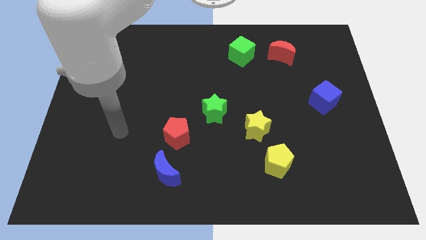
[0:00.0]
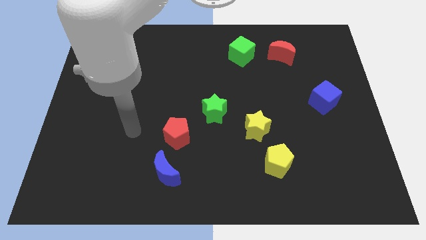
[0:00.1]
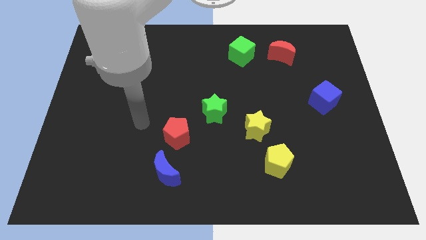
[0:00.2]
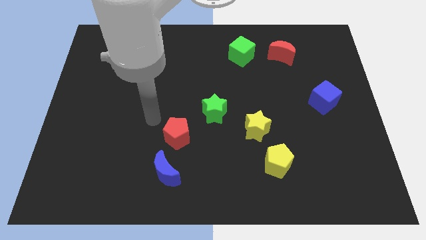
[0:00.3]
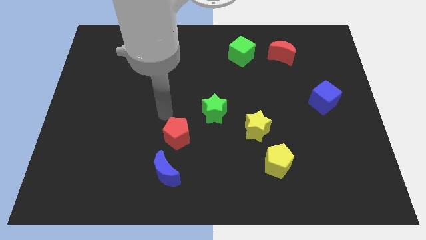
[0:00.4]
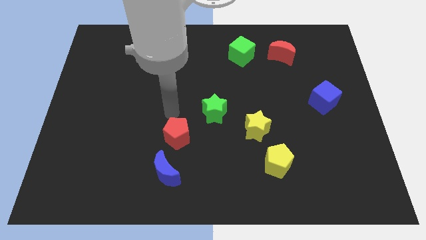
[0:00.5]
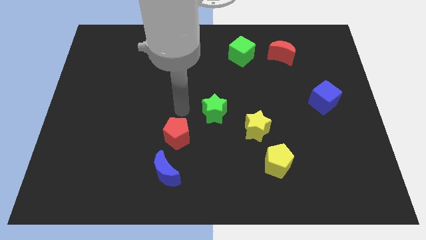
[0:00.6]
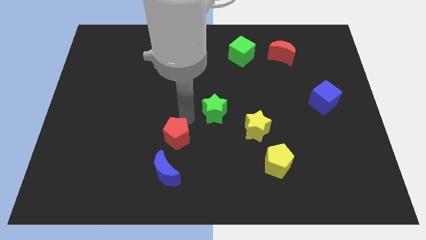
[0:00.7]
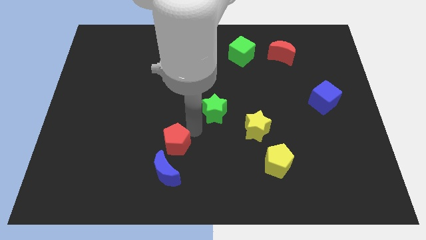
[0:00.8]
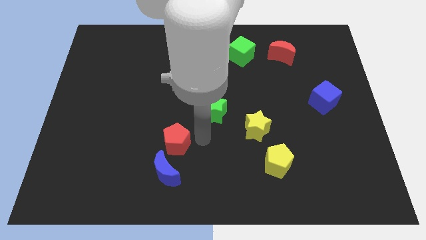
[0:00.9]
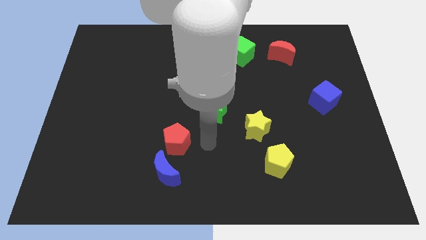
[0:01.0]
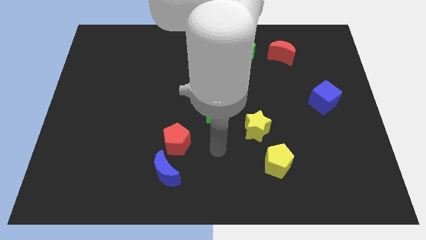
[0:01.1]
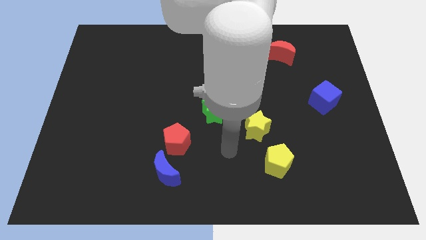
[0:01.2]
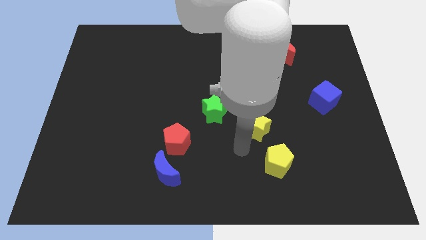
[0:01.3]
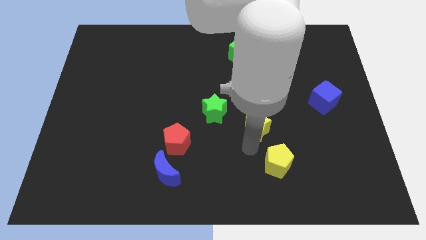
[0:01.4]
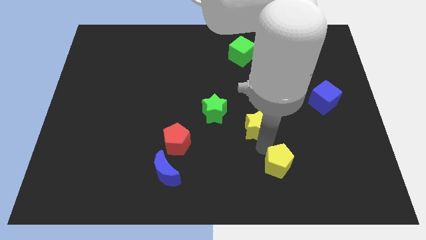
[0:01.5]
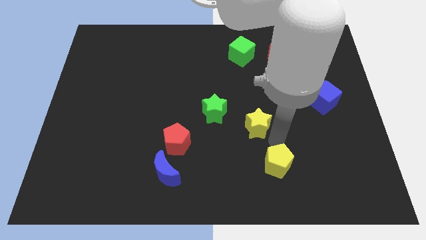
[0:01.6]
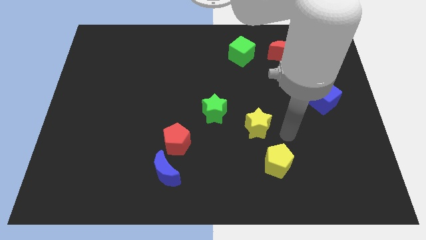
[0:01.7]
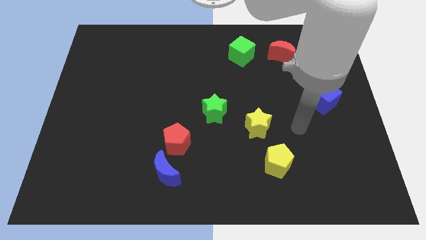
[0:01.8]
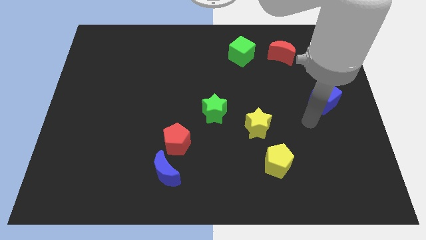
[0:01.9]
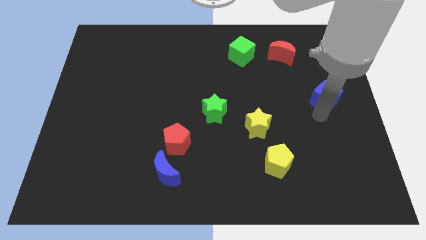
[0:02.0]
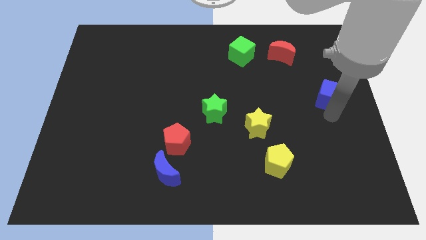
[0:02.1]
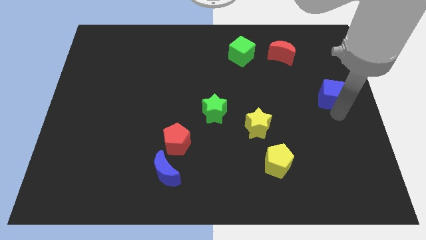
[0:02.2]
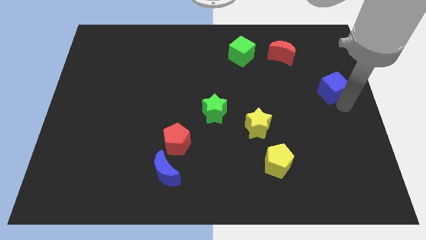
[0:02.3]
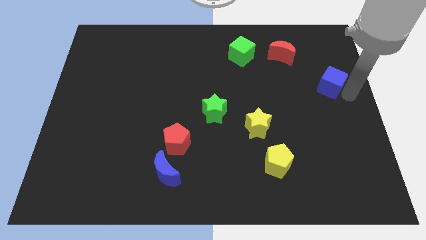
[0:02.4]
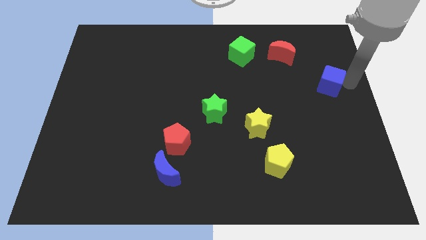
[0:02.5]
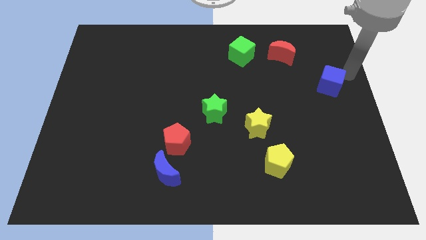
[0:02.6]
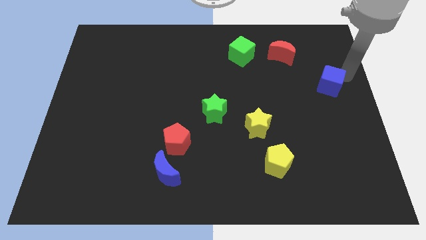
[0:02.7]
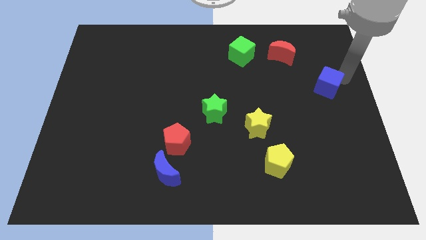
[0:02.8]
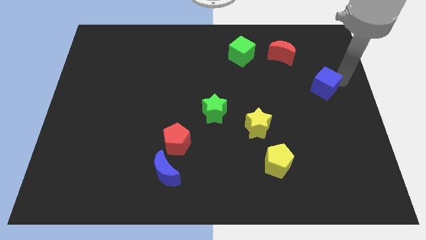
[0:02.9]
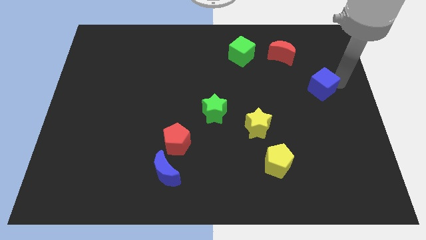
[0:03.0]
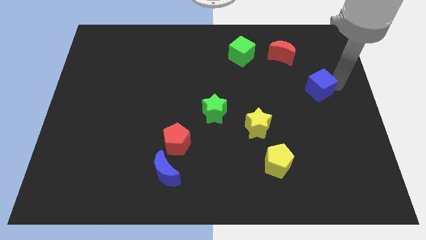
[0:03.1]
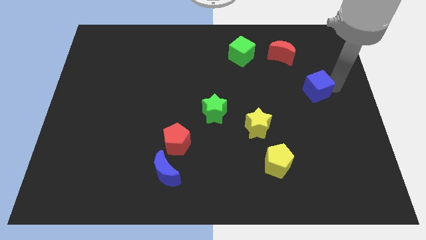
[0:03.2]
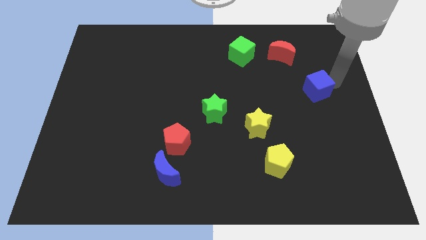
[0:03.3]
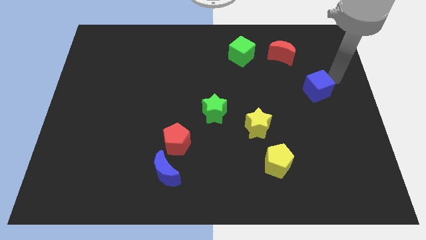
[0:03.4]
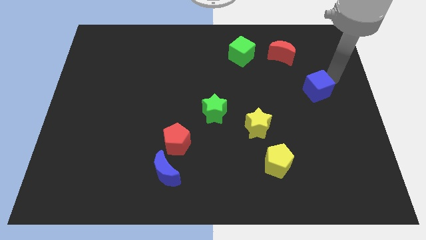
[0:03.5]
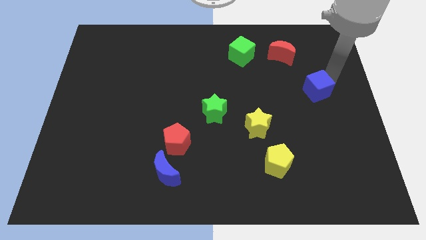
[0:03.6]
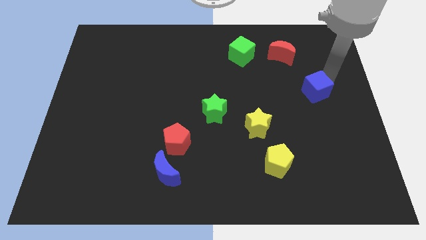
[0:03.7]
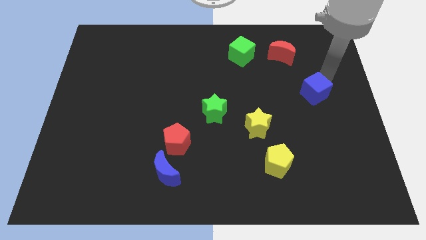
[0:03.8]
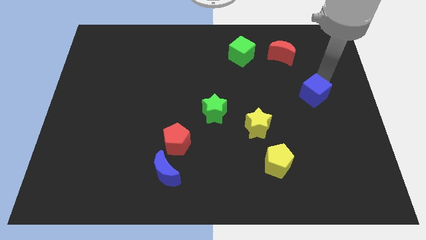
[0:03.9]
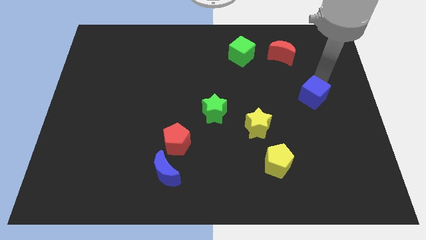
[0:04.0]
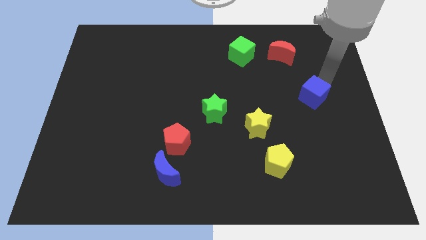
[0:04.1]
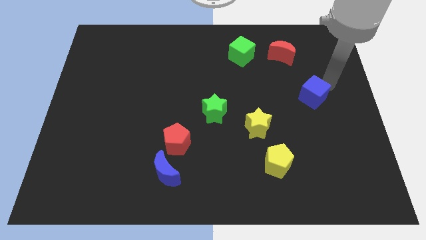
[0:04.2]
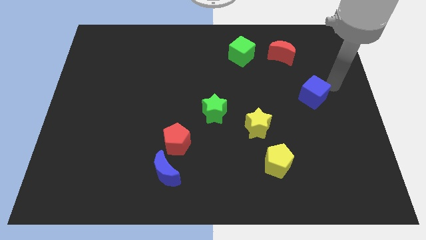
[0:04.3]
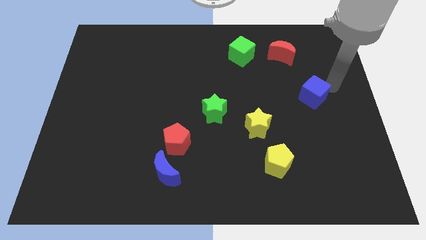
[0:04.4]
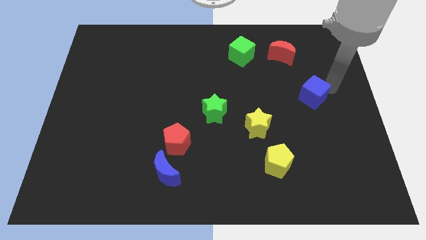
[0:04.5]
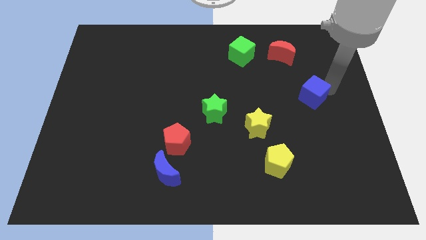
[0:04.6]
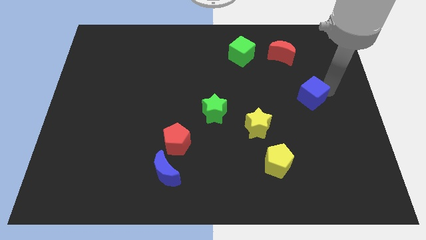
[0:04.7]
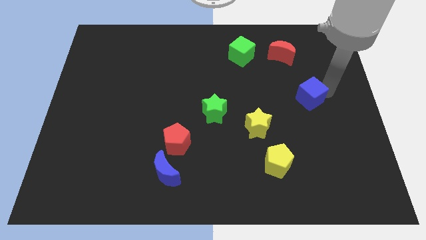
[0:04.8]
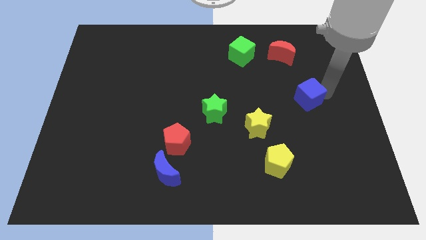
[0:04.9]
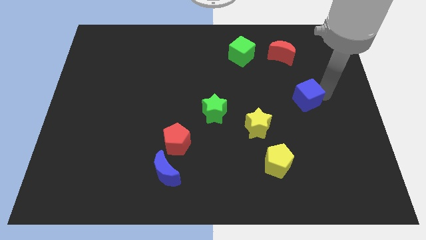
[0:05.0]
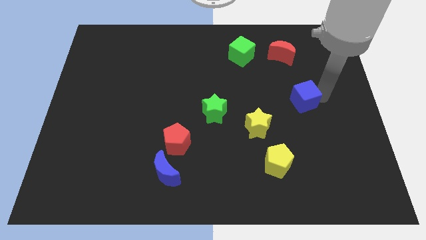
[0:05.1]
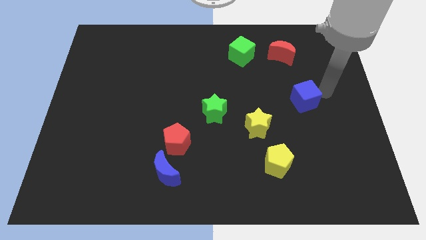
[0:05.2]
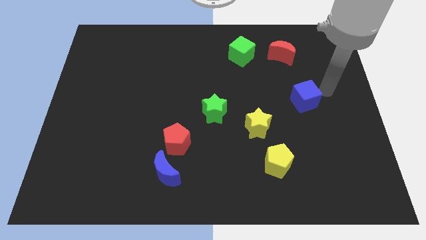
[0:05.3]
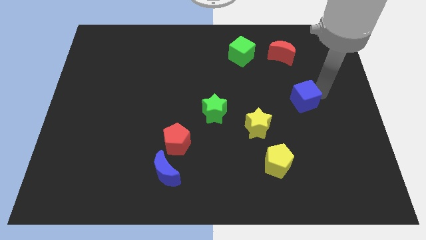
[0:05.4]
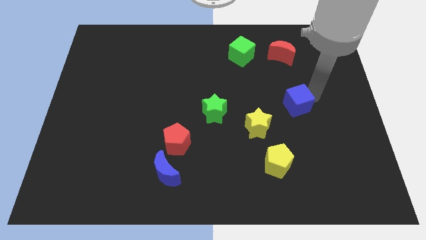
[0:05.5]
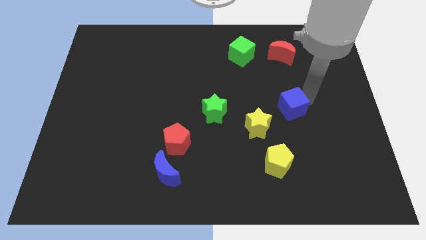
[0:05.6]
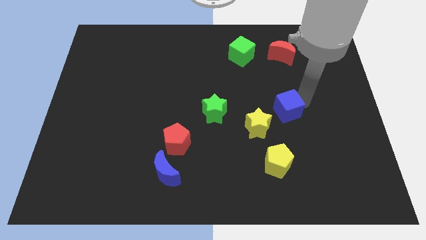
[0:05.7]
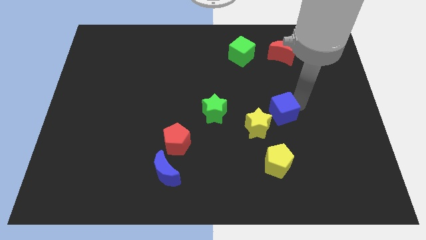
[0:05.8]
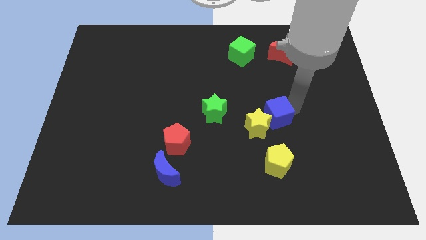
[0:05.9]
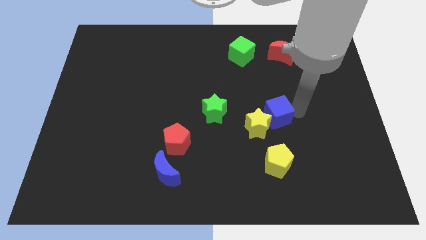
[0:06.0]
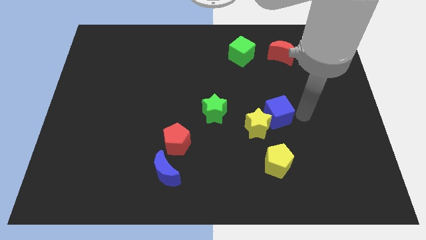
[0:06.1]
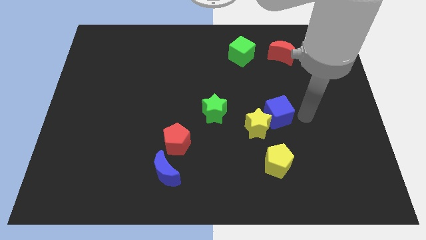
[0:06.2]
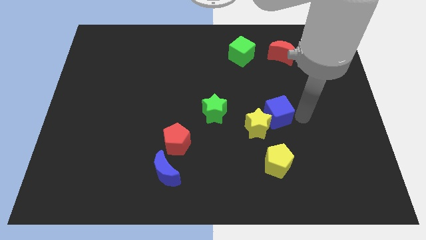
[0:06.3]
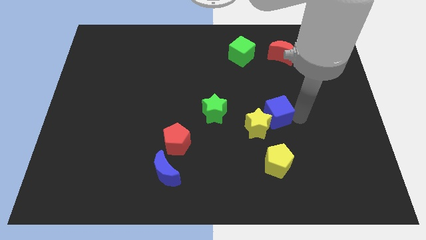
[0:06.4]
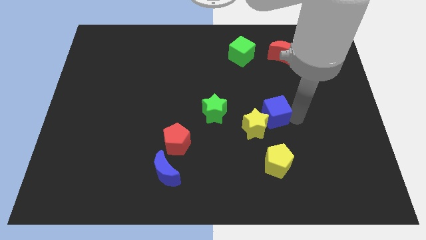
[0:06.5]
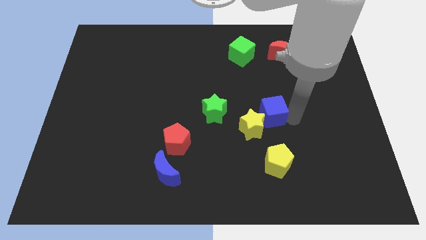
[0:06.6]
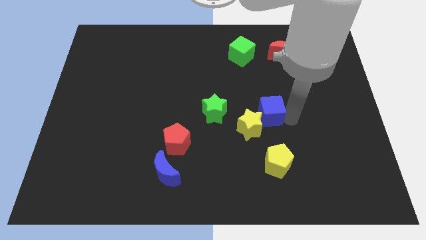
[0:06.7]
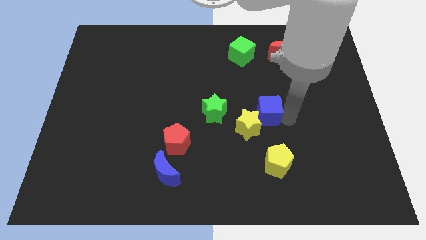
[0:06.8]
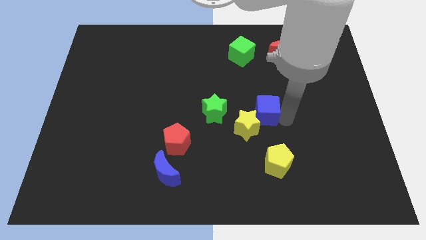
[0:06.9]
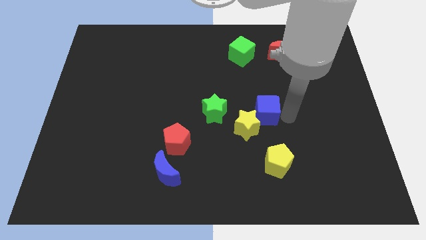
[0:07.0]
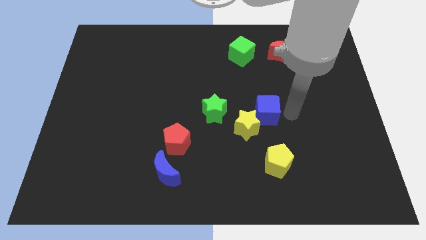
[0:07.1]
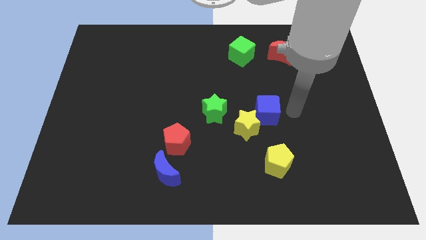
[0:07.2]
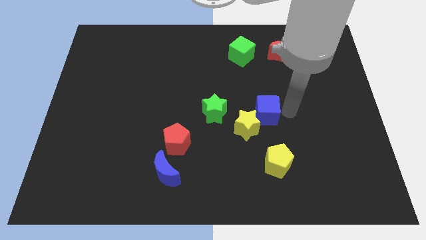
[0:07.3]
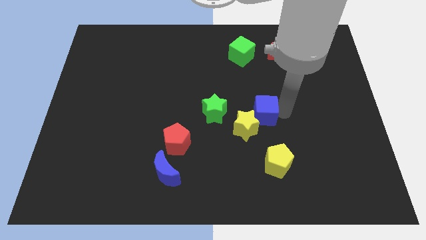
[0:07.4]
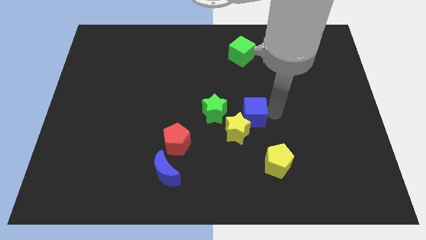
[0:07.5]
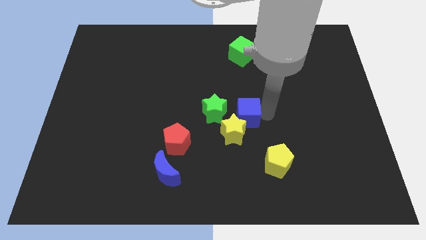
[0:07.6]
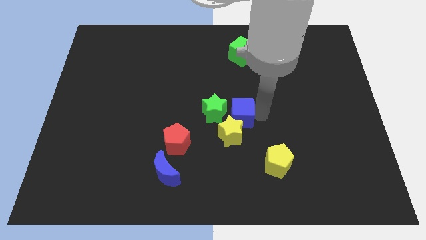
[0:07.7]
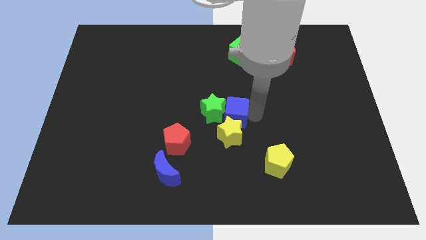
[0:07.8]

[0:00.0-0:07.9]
put the blue cube towards the green star
